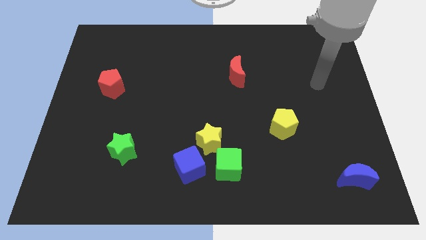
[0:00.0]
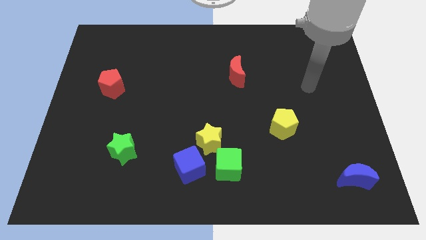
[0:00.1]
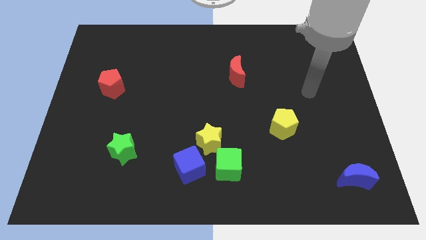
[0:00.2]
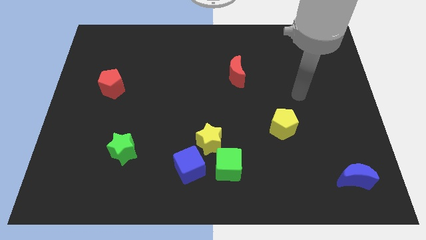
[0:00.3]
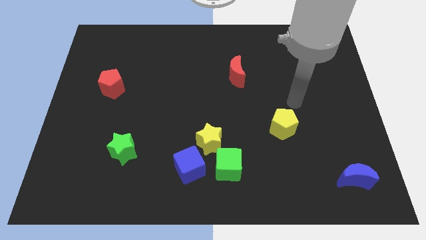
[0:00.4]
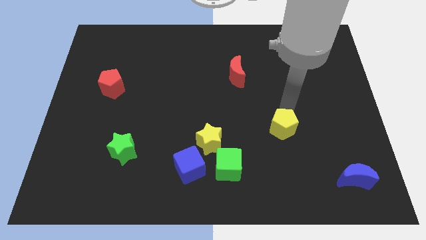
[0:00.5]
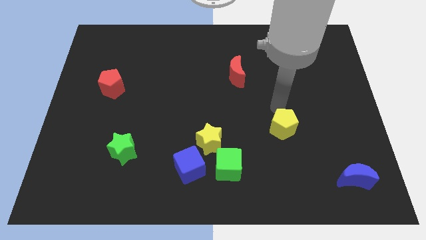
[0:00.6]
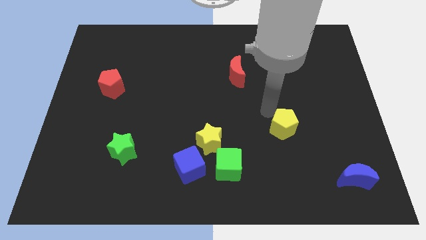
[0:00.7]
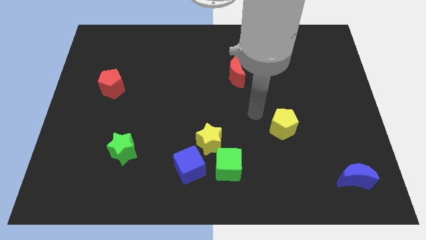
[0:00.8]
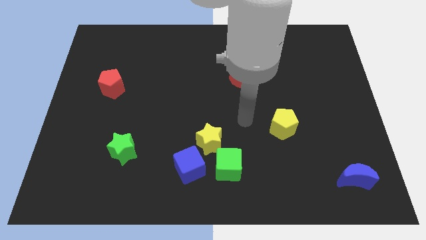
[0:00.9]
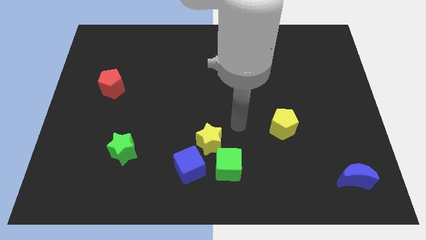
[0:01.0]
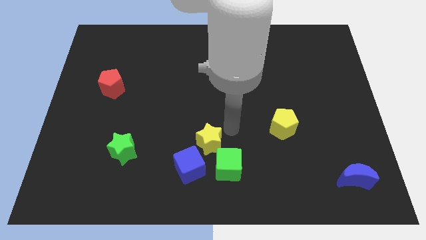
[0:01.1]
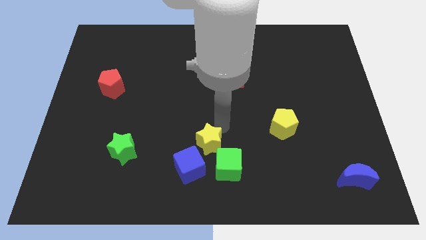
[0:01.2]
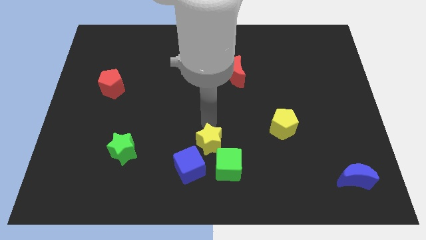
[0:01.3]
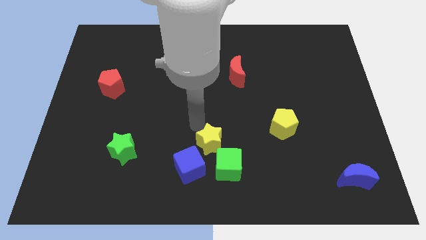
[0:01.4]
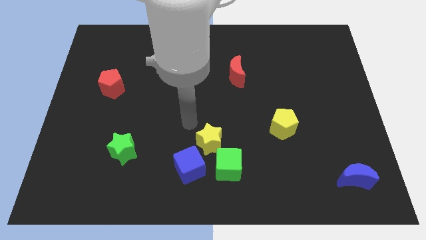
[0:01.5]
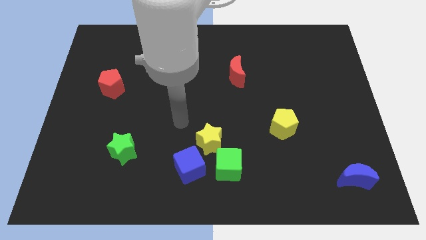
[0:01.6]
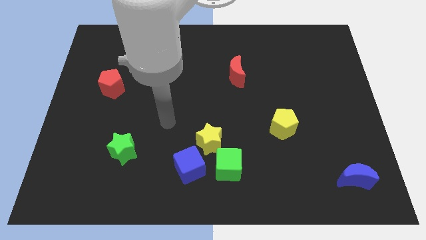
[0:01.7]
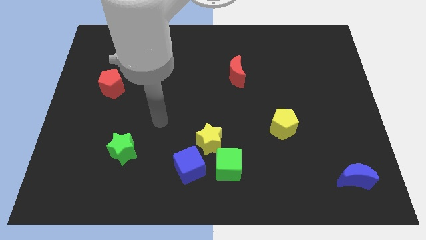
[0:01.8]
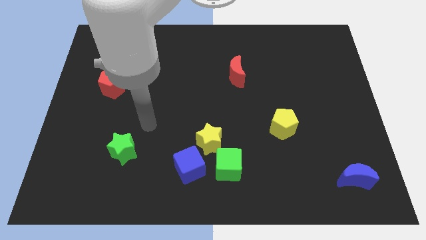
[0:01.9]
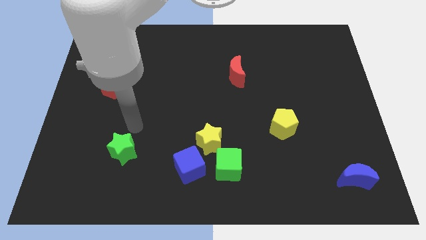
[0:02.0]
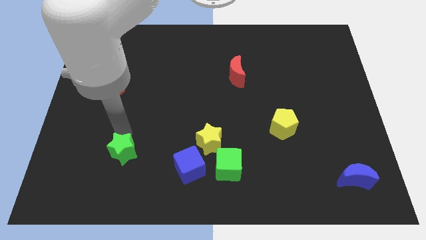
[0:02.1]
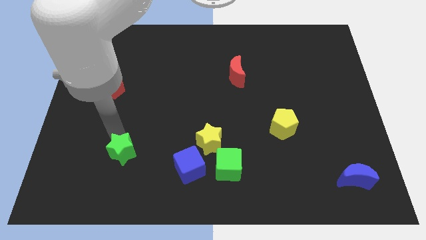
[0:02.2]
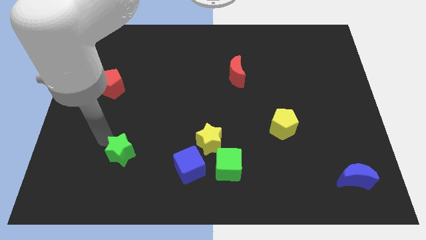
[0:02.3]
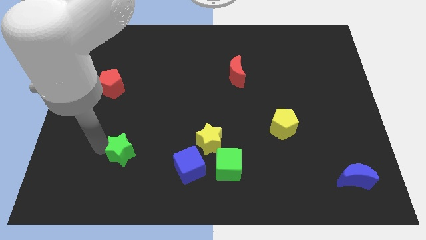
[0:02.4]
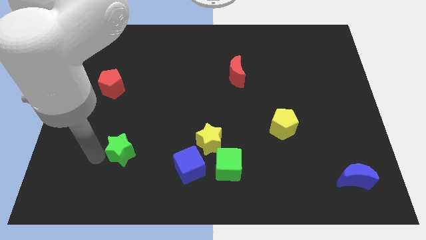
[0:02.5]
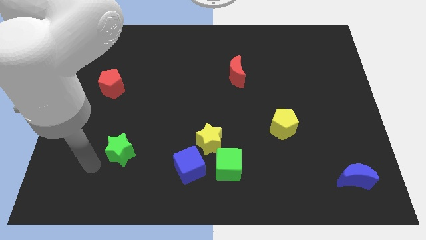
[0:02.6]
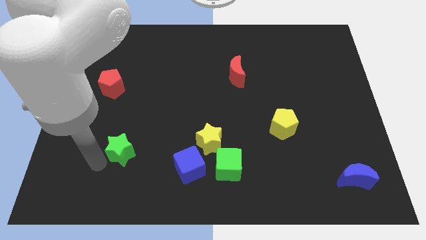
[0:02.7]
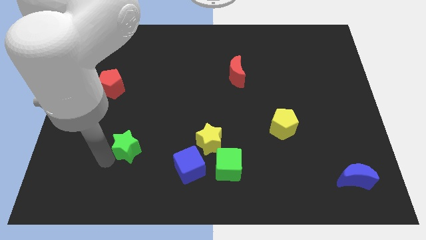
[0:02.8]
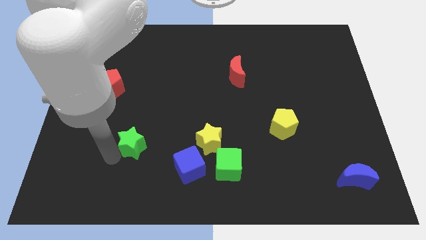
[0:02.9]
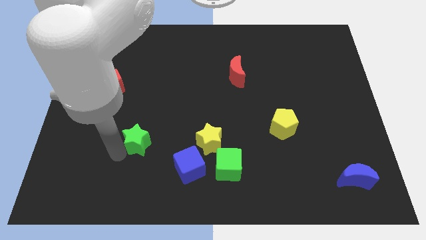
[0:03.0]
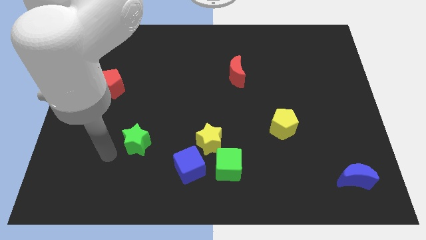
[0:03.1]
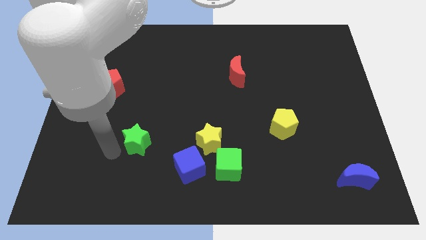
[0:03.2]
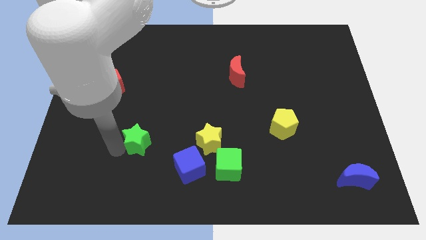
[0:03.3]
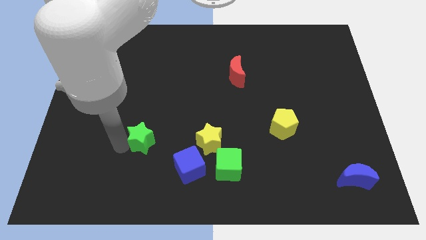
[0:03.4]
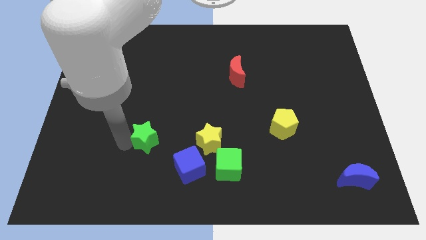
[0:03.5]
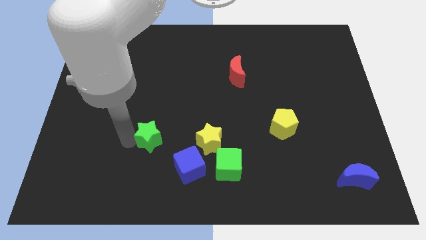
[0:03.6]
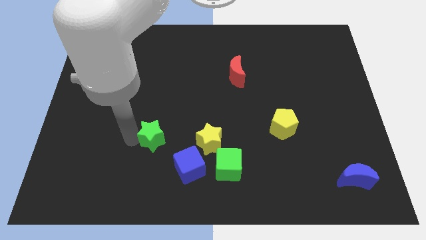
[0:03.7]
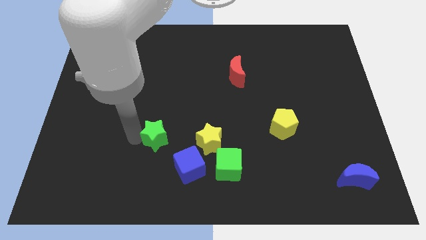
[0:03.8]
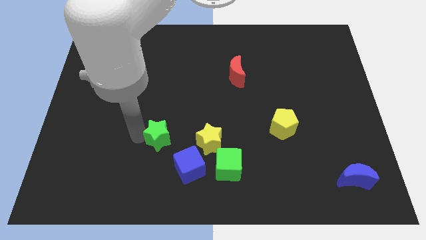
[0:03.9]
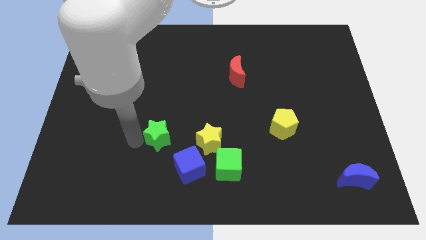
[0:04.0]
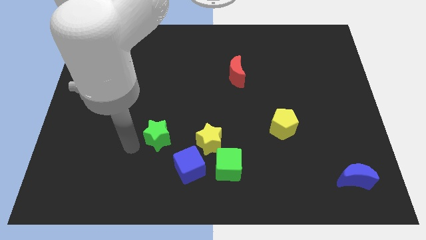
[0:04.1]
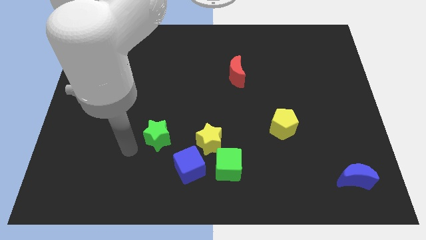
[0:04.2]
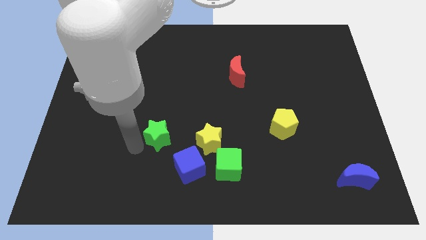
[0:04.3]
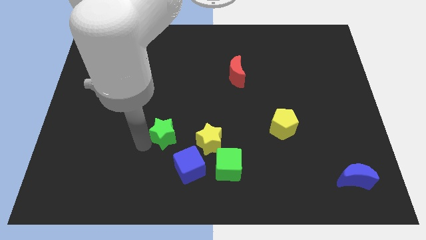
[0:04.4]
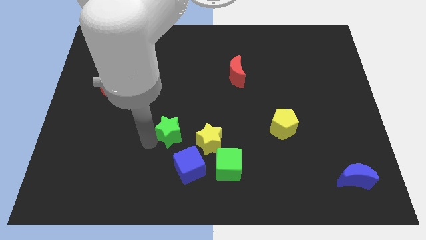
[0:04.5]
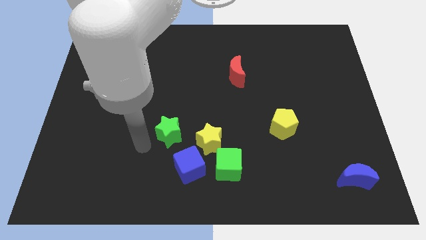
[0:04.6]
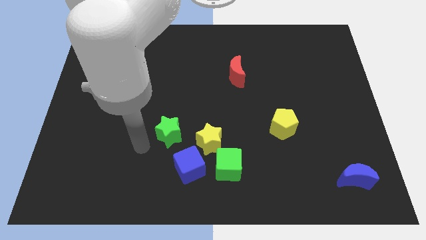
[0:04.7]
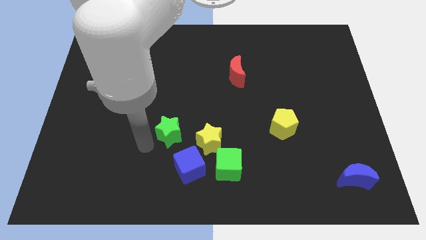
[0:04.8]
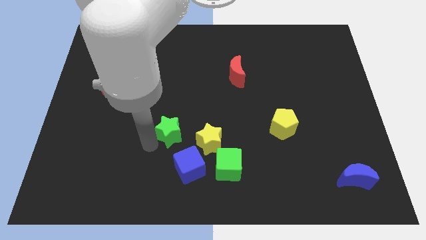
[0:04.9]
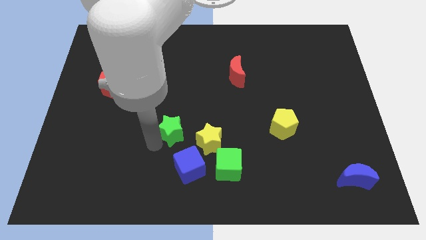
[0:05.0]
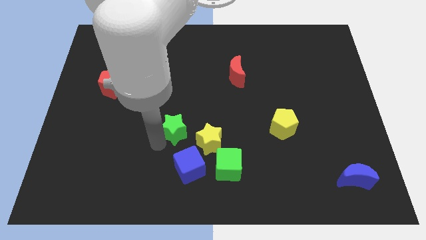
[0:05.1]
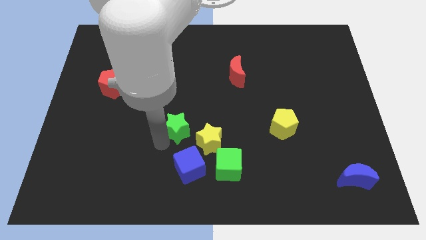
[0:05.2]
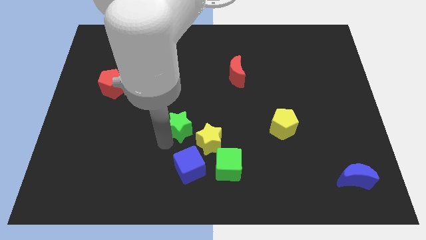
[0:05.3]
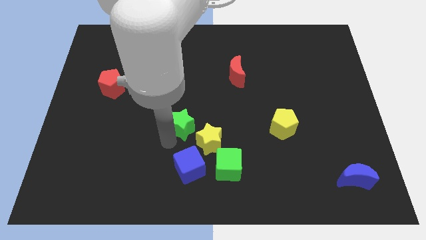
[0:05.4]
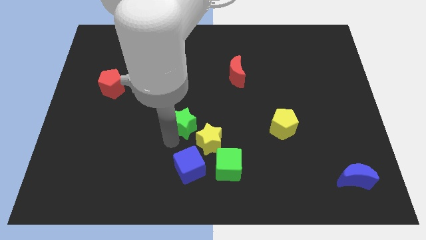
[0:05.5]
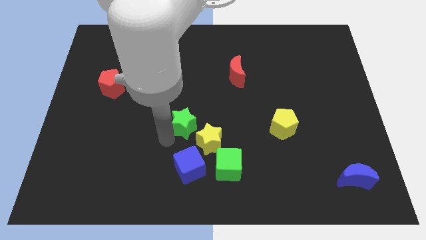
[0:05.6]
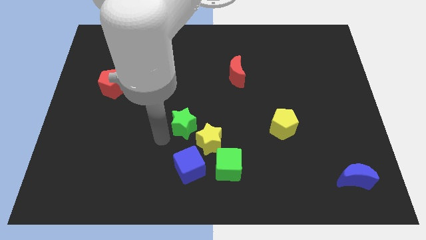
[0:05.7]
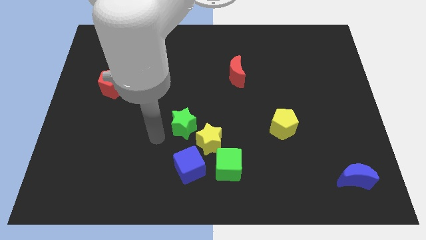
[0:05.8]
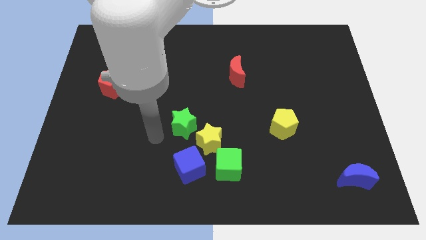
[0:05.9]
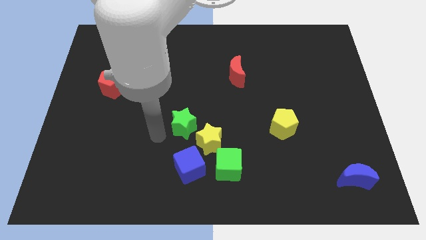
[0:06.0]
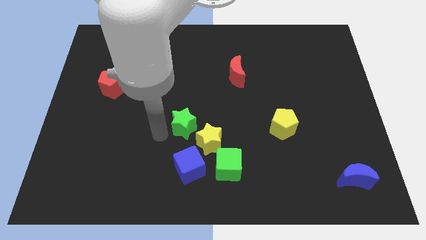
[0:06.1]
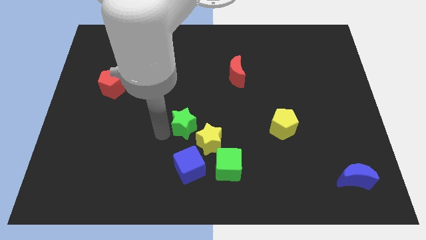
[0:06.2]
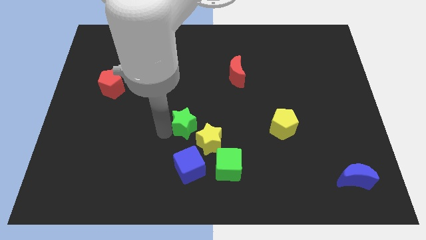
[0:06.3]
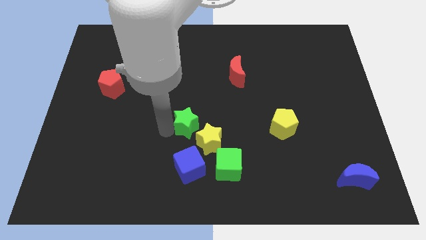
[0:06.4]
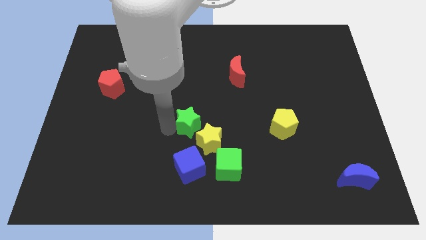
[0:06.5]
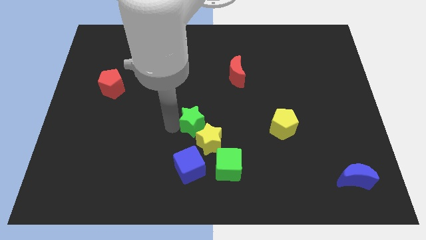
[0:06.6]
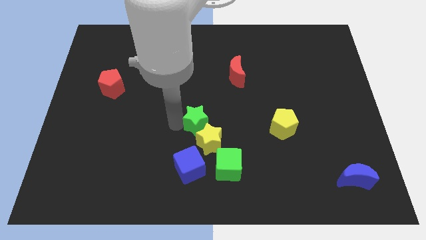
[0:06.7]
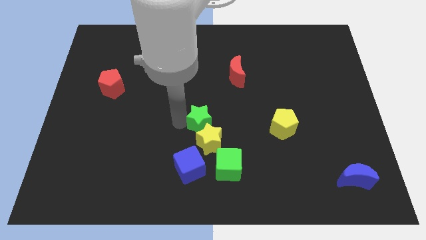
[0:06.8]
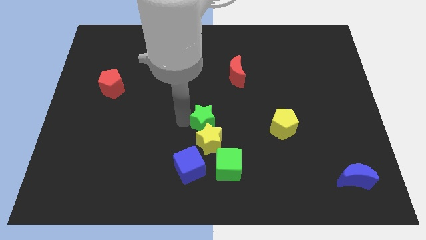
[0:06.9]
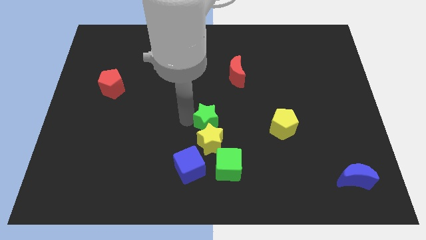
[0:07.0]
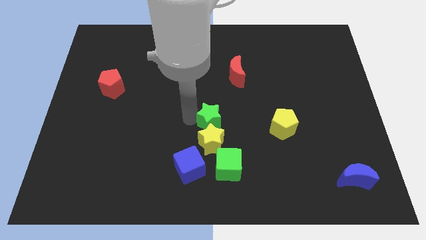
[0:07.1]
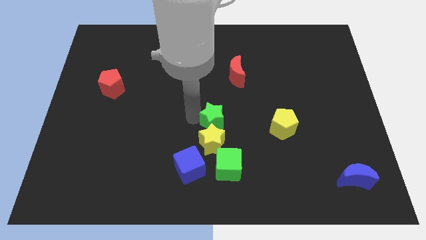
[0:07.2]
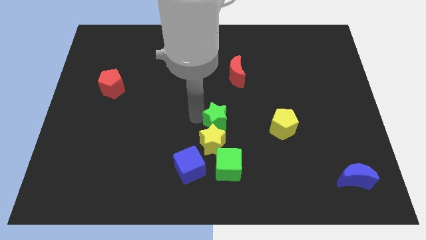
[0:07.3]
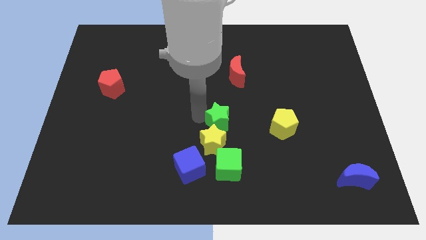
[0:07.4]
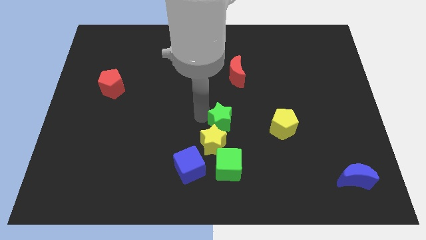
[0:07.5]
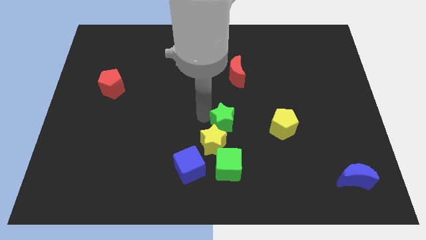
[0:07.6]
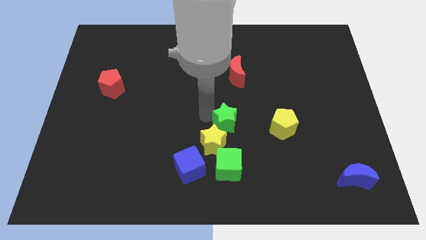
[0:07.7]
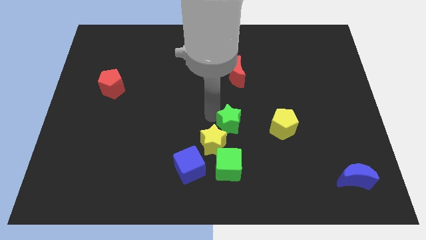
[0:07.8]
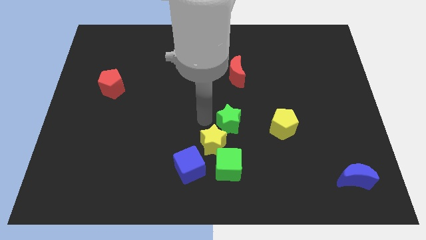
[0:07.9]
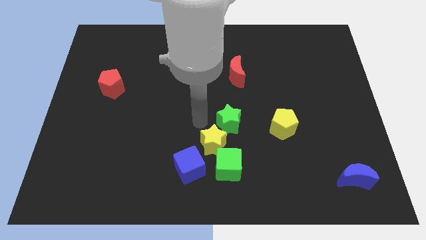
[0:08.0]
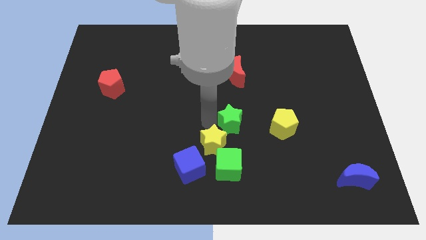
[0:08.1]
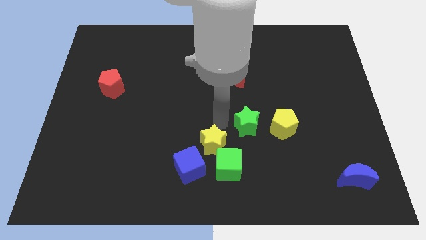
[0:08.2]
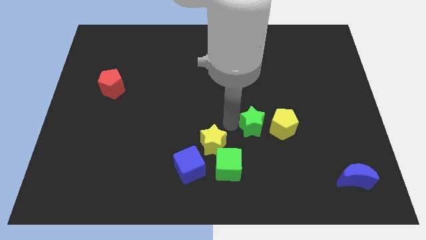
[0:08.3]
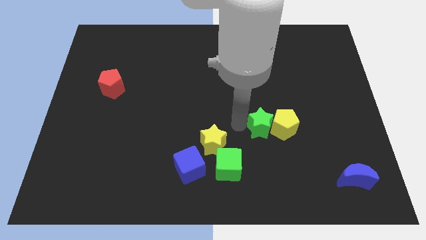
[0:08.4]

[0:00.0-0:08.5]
put the green star close to the yellow pentagon
